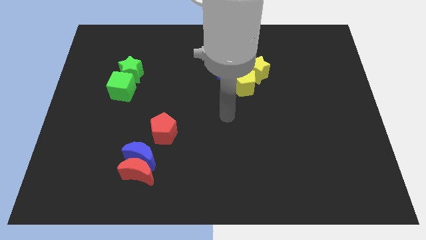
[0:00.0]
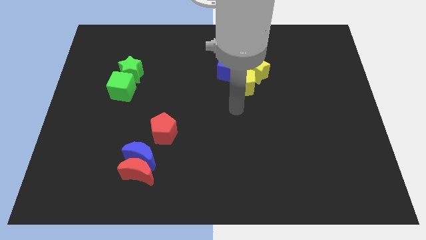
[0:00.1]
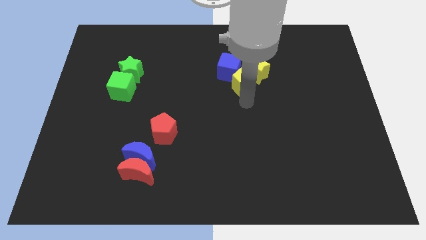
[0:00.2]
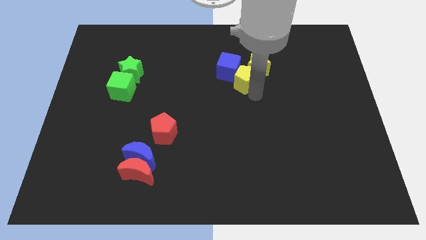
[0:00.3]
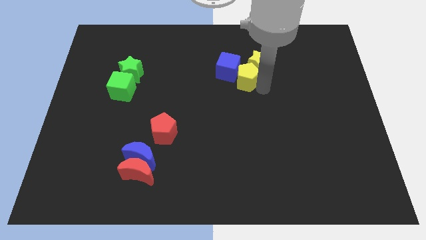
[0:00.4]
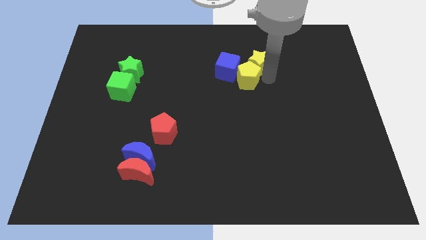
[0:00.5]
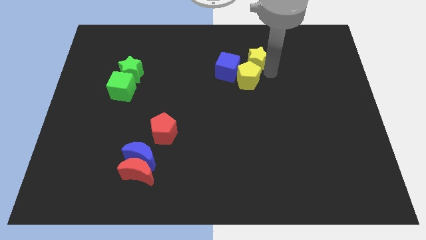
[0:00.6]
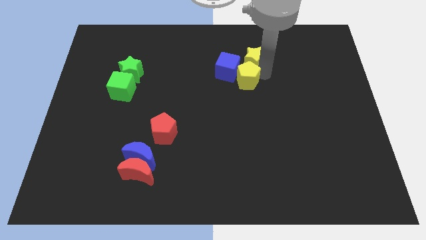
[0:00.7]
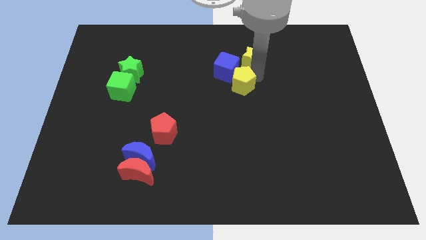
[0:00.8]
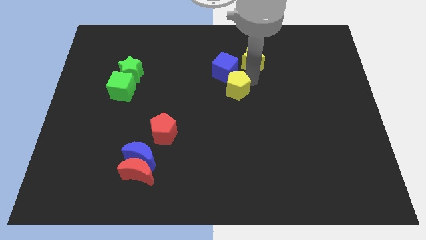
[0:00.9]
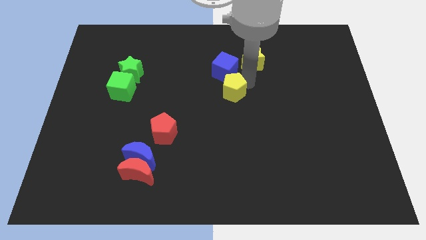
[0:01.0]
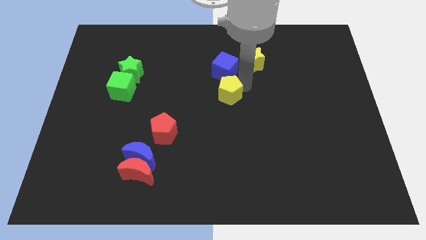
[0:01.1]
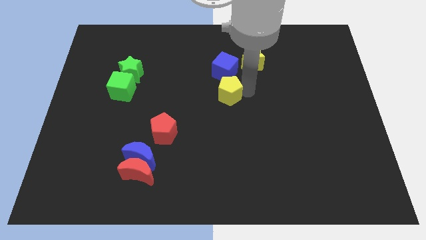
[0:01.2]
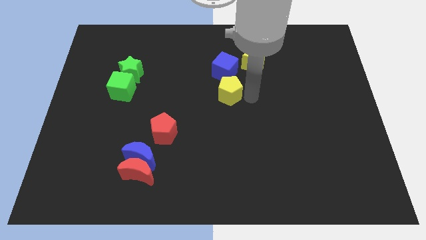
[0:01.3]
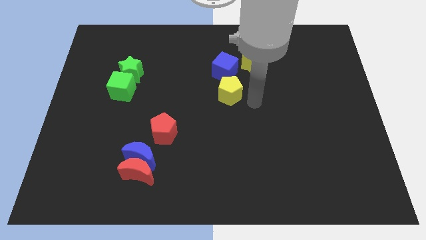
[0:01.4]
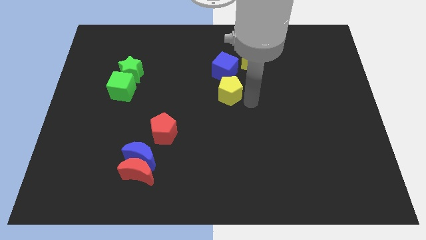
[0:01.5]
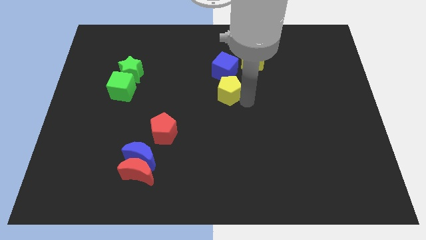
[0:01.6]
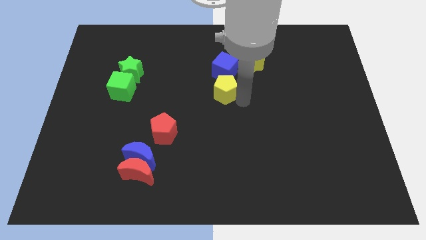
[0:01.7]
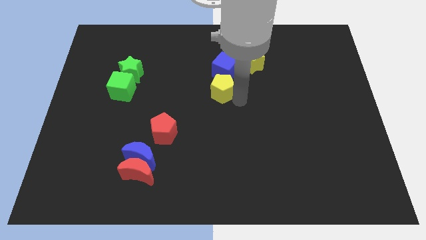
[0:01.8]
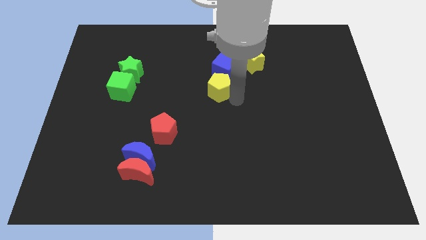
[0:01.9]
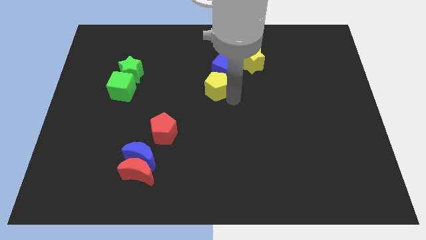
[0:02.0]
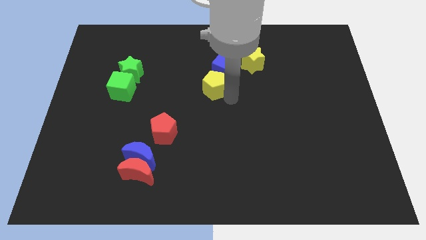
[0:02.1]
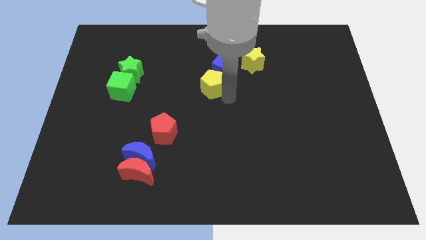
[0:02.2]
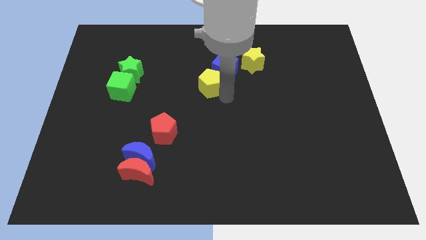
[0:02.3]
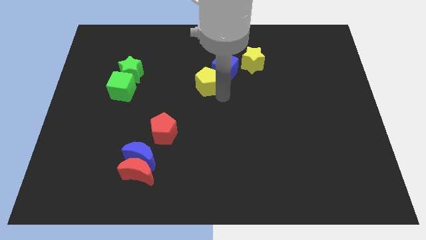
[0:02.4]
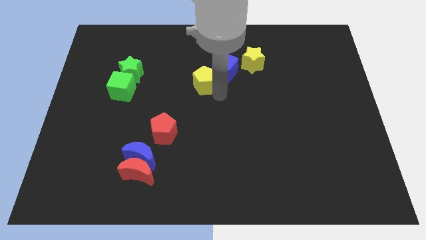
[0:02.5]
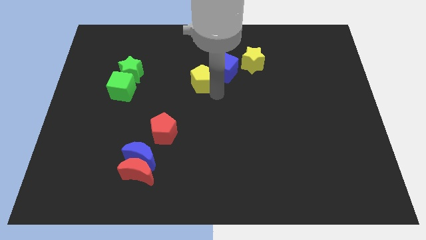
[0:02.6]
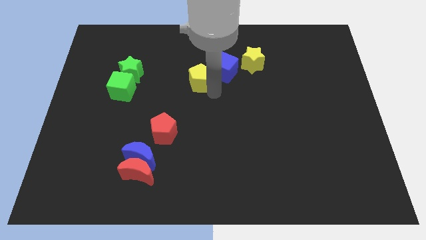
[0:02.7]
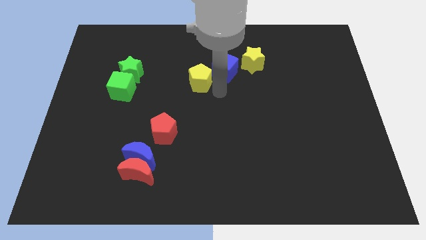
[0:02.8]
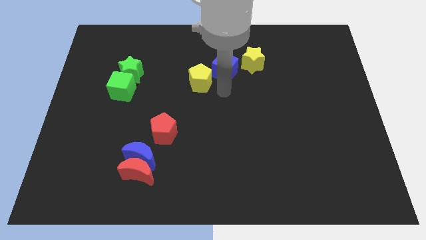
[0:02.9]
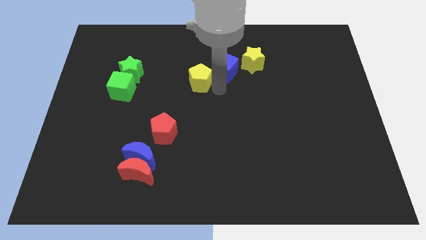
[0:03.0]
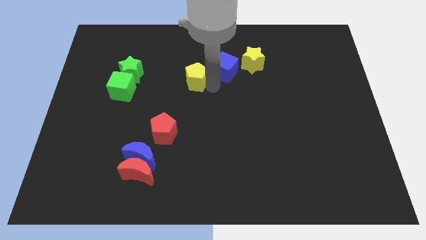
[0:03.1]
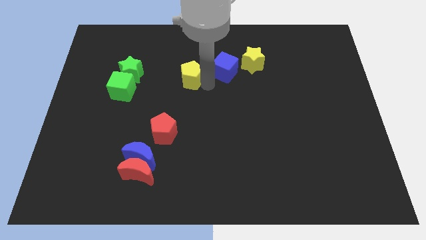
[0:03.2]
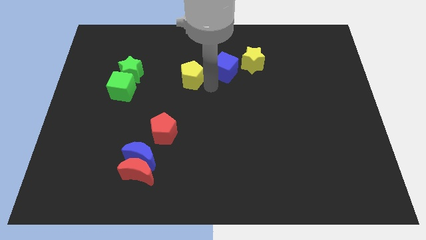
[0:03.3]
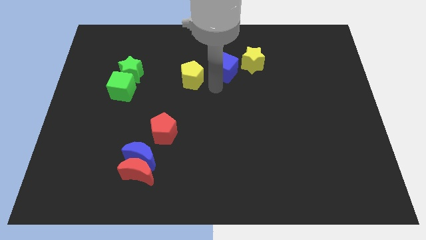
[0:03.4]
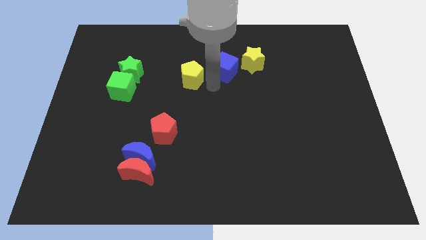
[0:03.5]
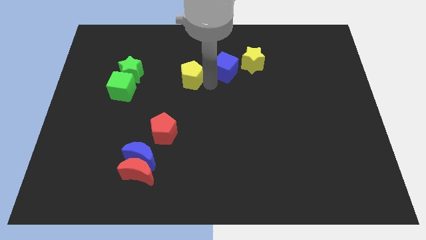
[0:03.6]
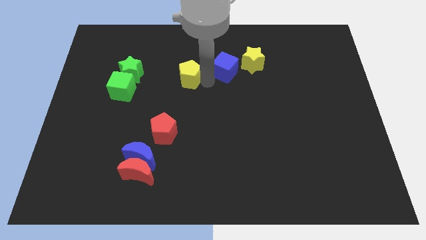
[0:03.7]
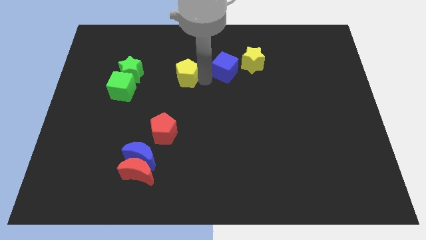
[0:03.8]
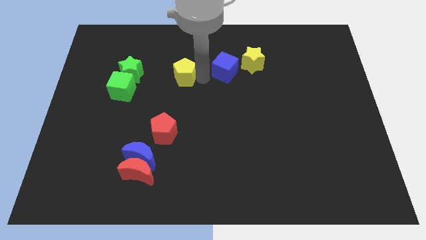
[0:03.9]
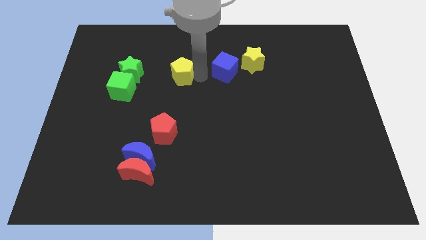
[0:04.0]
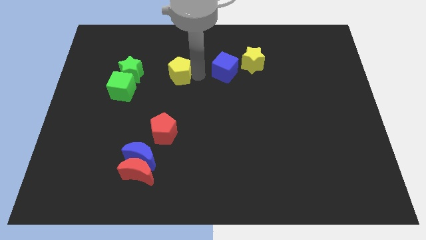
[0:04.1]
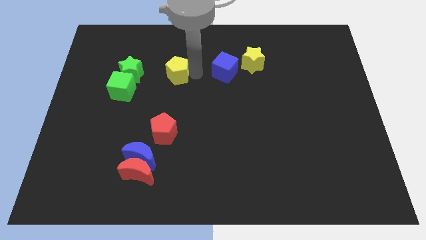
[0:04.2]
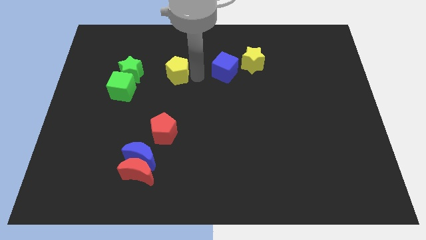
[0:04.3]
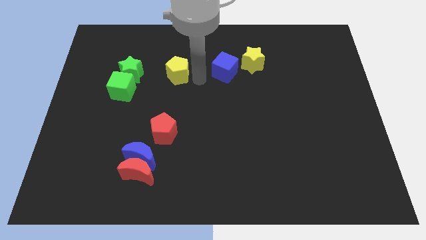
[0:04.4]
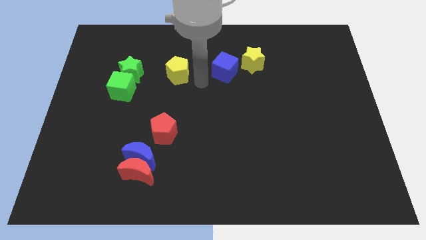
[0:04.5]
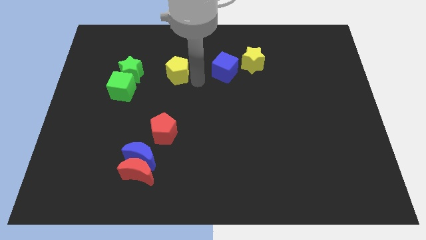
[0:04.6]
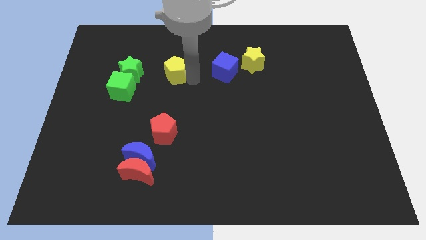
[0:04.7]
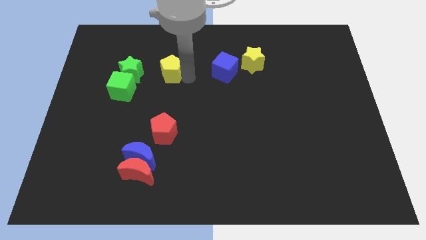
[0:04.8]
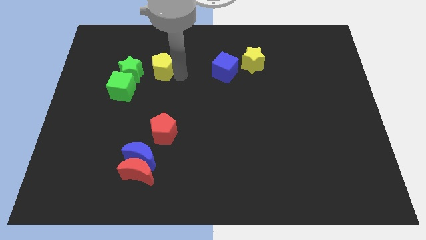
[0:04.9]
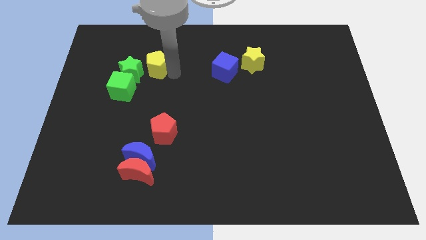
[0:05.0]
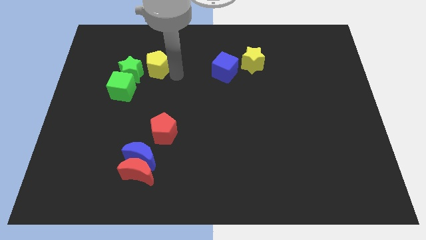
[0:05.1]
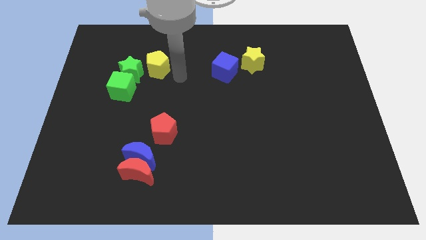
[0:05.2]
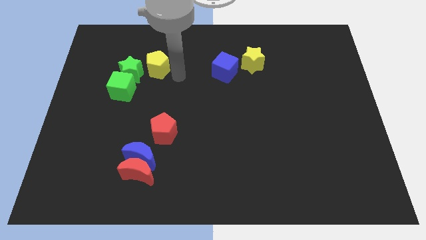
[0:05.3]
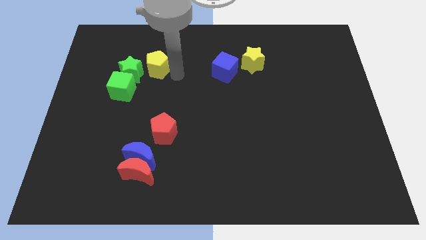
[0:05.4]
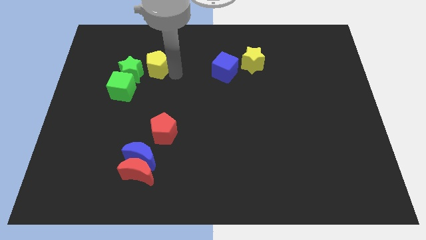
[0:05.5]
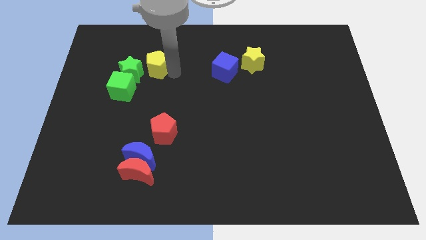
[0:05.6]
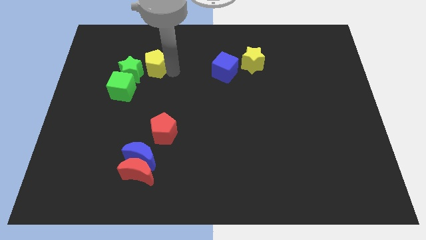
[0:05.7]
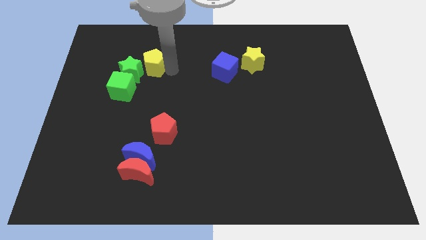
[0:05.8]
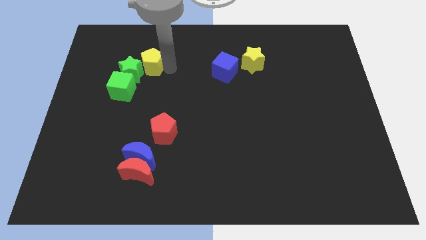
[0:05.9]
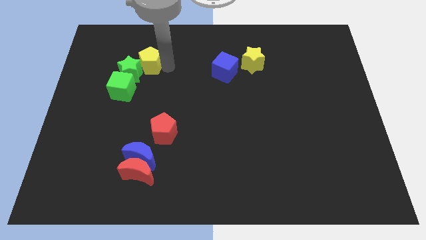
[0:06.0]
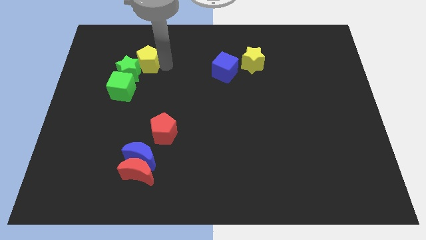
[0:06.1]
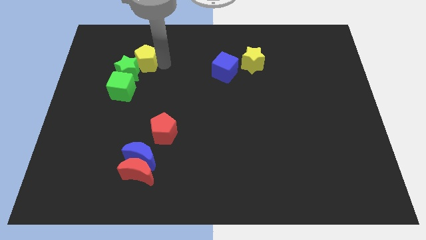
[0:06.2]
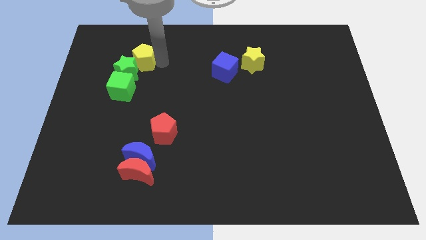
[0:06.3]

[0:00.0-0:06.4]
put the yellow pentagon to the top of the green cube

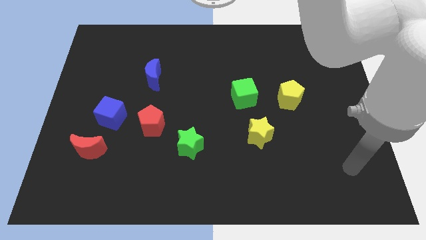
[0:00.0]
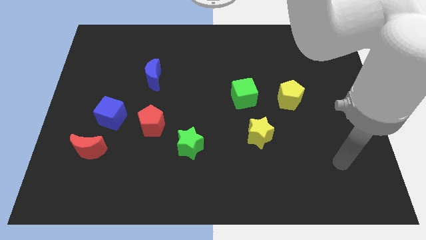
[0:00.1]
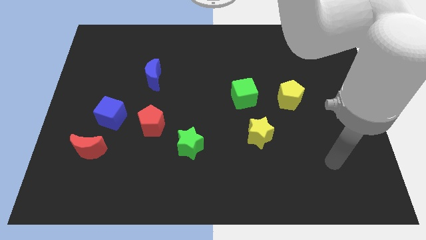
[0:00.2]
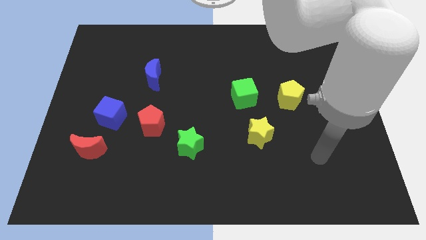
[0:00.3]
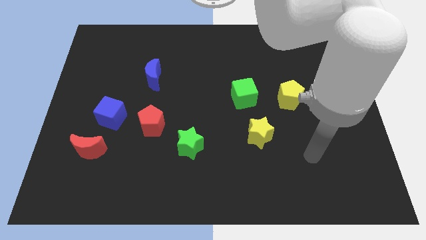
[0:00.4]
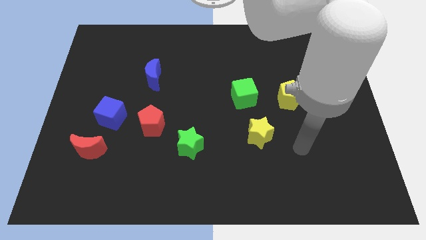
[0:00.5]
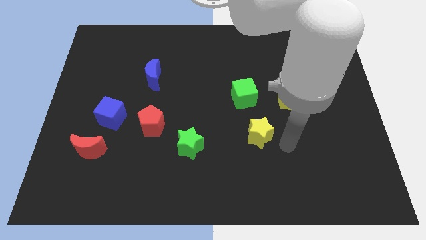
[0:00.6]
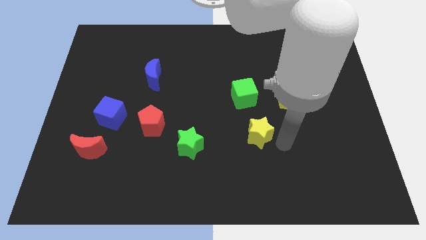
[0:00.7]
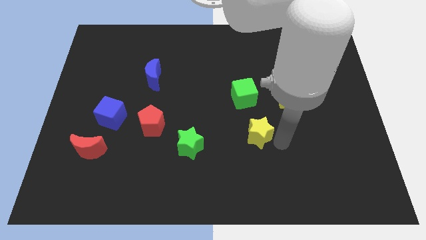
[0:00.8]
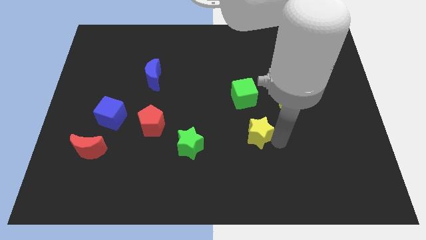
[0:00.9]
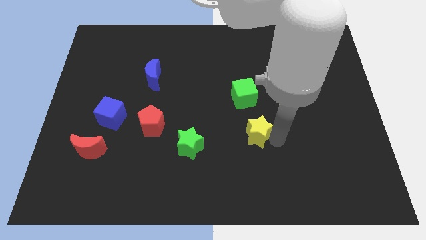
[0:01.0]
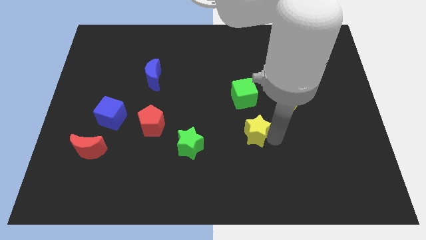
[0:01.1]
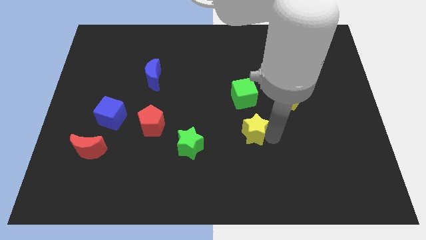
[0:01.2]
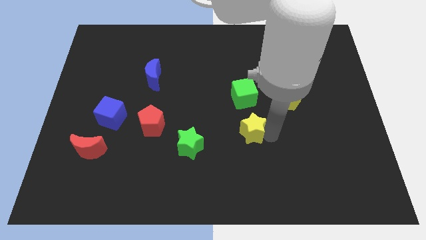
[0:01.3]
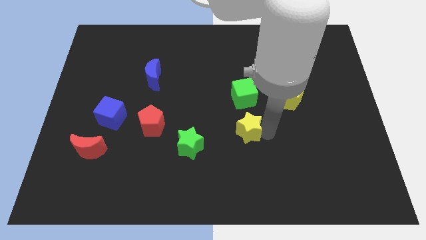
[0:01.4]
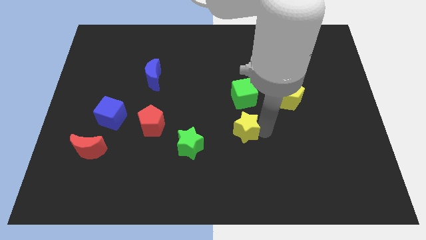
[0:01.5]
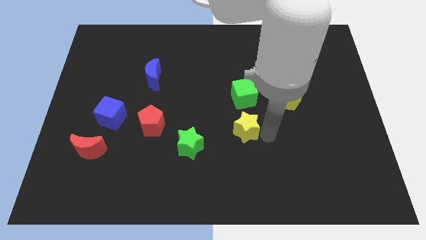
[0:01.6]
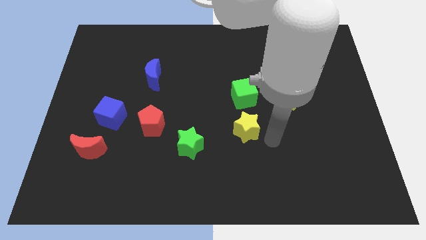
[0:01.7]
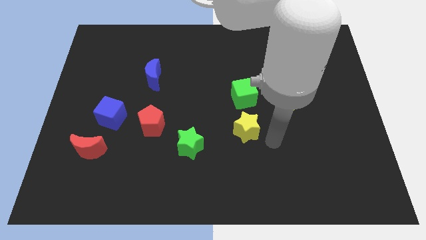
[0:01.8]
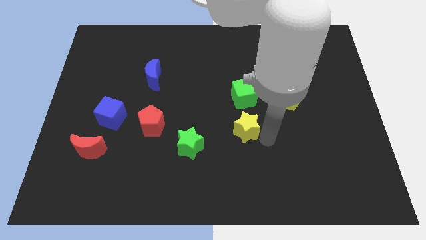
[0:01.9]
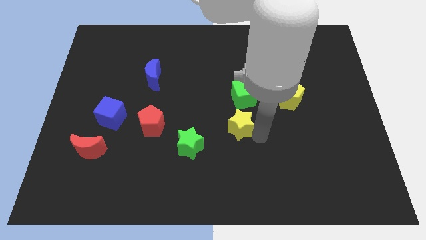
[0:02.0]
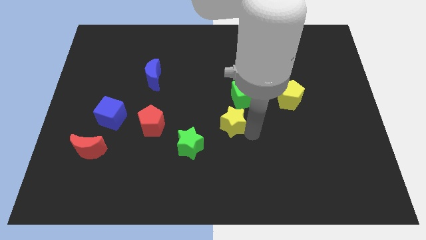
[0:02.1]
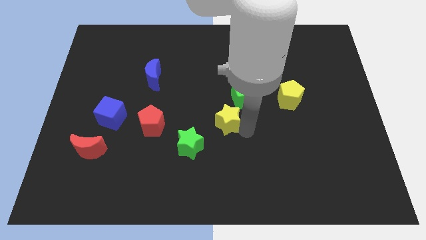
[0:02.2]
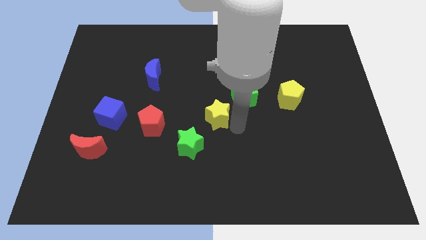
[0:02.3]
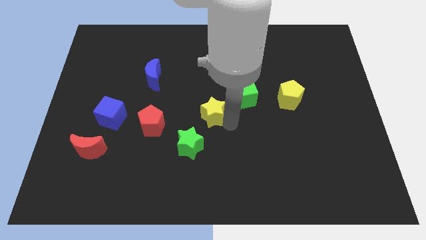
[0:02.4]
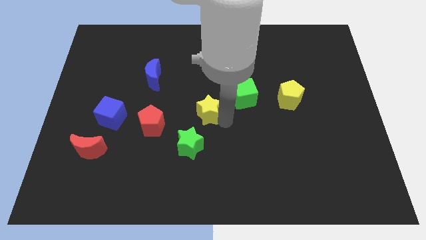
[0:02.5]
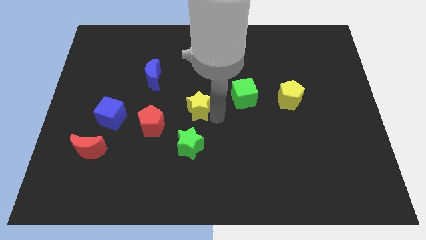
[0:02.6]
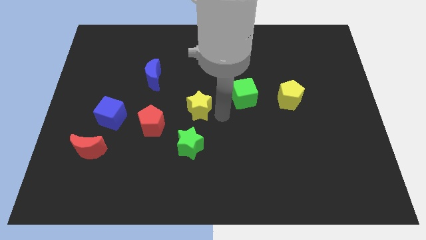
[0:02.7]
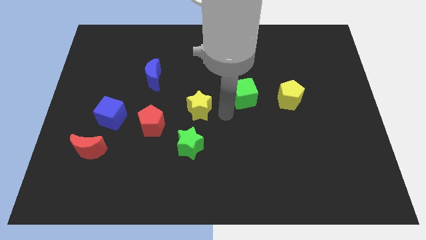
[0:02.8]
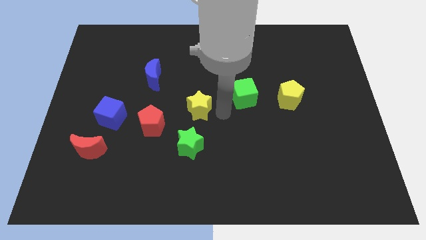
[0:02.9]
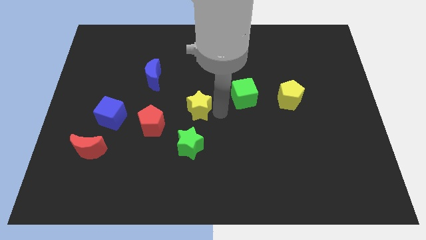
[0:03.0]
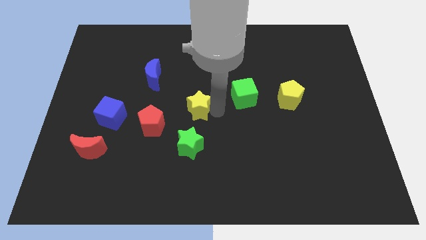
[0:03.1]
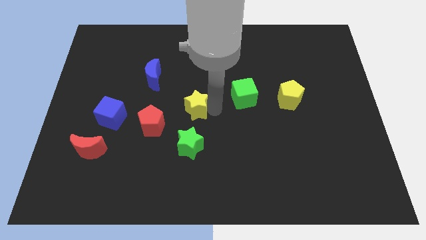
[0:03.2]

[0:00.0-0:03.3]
move the yellow star diagonally up and to the right of the red pentagon
